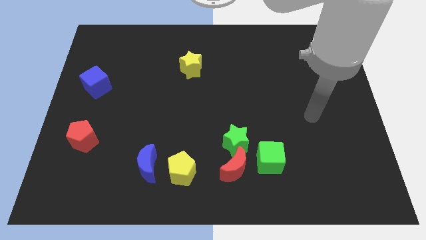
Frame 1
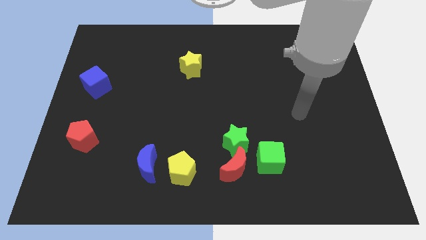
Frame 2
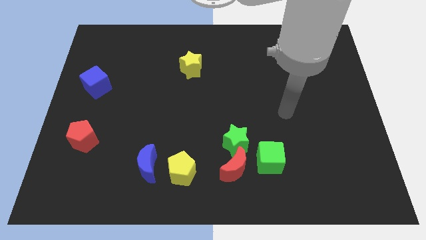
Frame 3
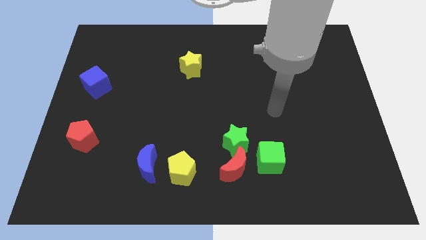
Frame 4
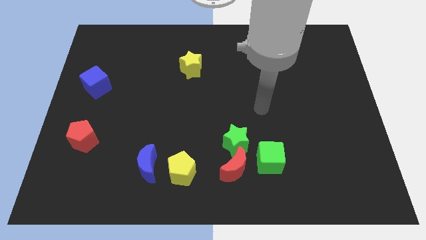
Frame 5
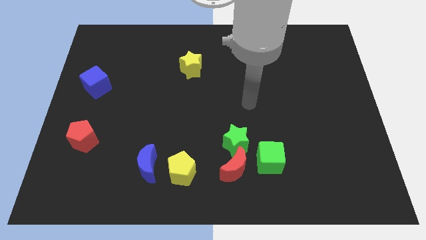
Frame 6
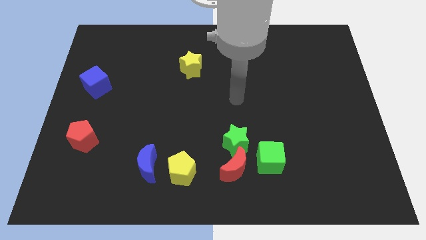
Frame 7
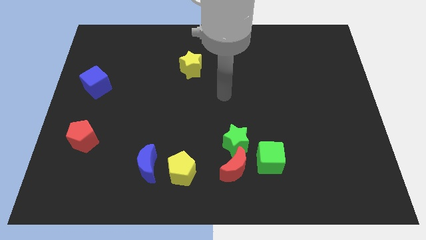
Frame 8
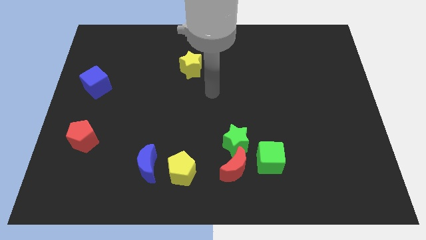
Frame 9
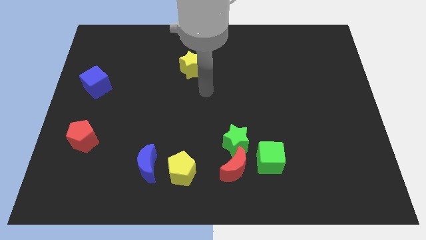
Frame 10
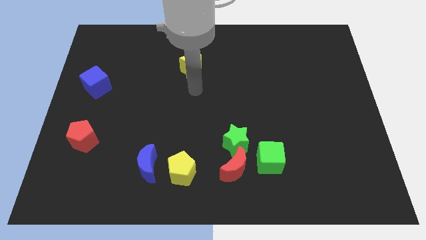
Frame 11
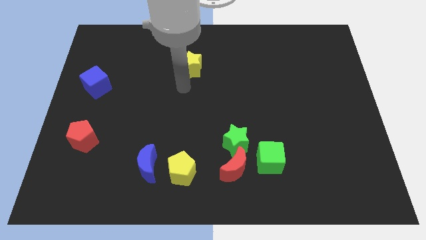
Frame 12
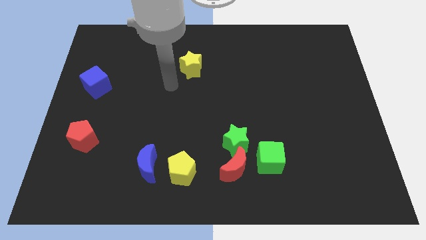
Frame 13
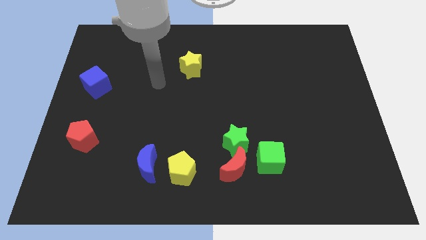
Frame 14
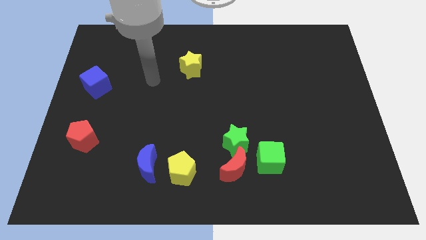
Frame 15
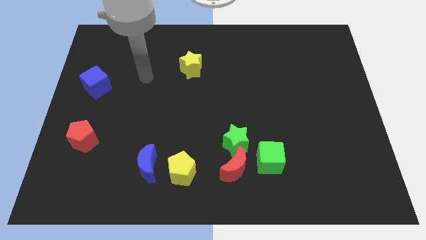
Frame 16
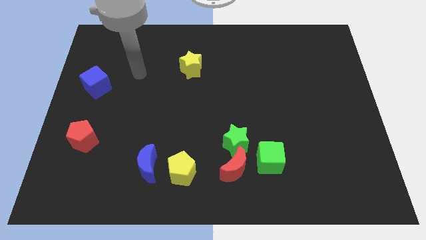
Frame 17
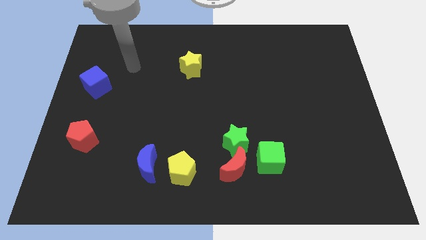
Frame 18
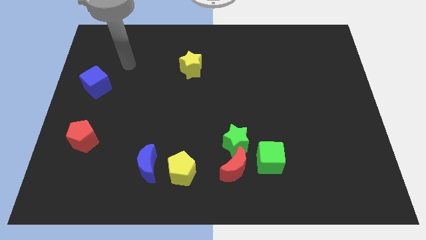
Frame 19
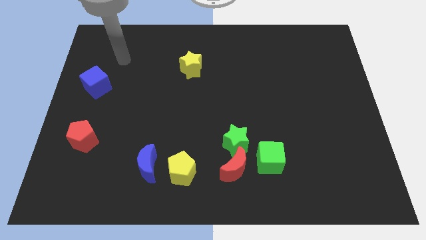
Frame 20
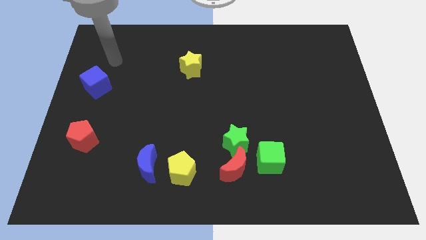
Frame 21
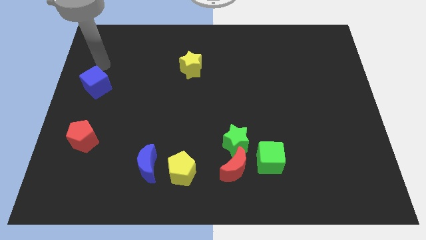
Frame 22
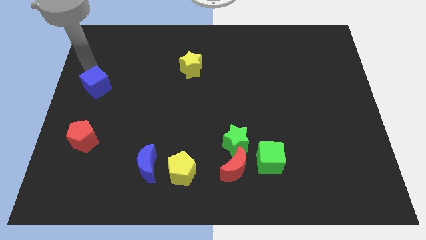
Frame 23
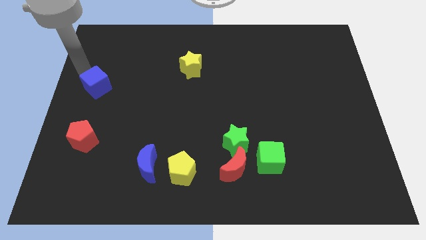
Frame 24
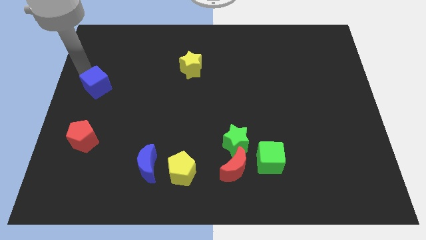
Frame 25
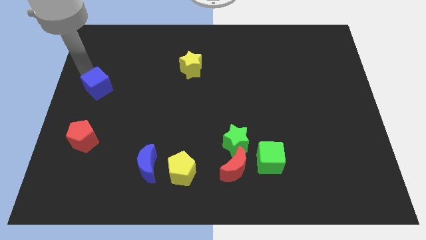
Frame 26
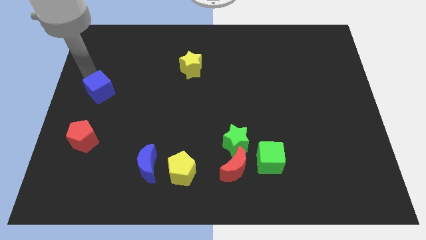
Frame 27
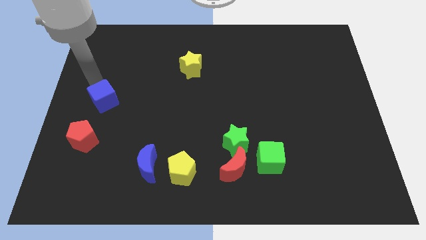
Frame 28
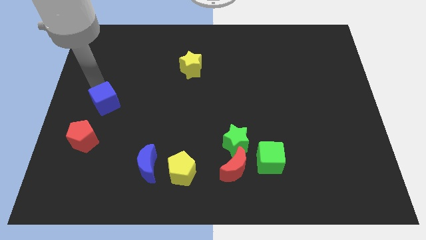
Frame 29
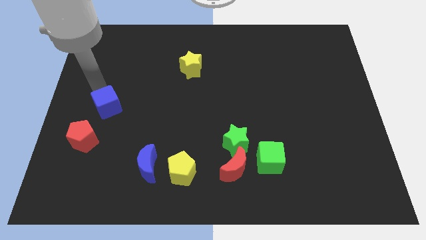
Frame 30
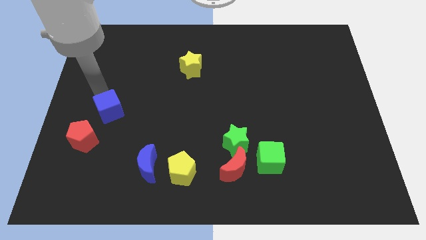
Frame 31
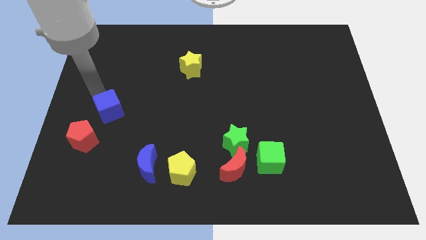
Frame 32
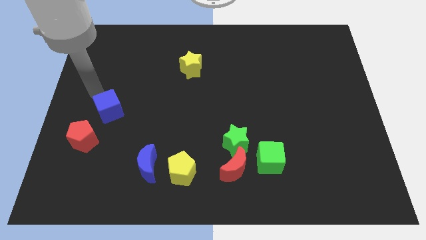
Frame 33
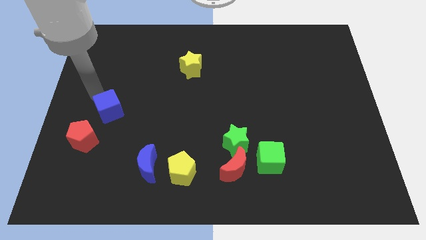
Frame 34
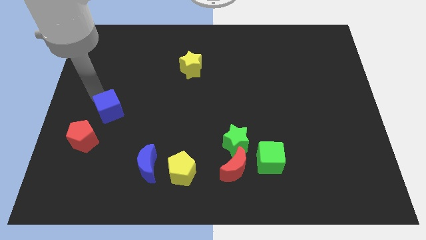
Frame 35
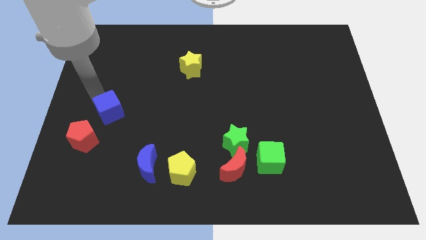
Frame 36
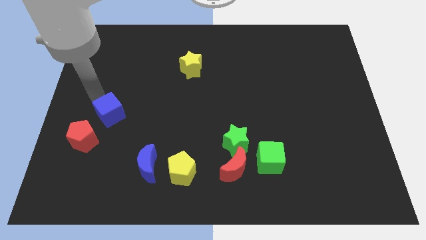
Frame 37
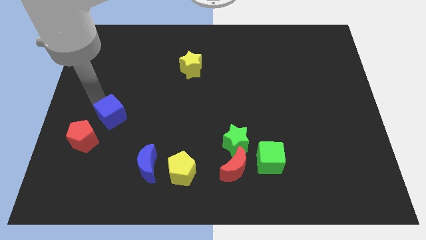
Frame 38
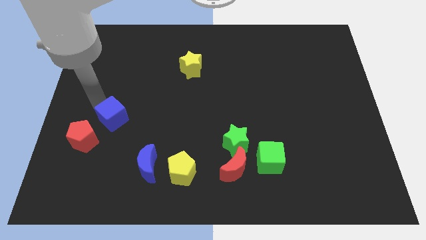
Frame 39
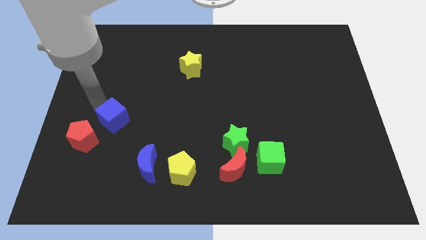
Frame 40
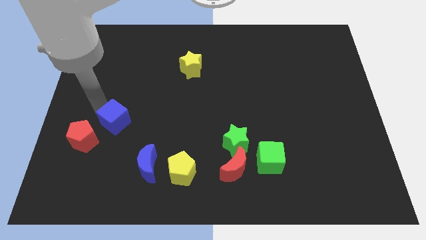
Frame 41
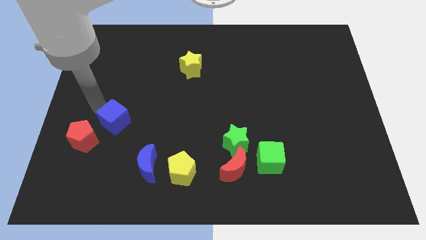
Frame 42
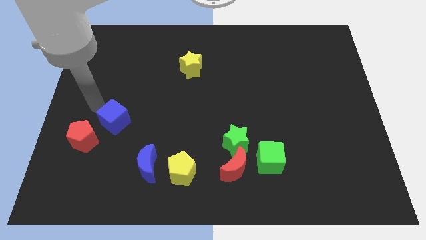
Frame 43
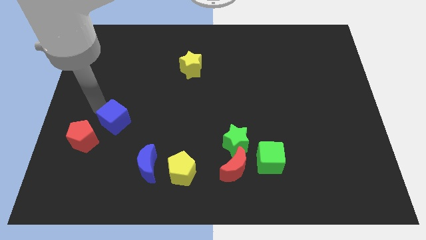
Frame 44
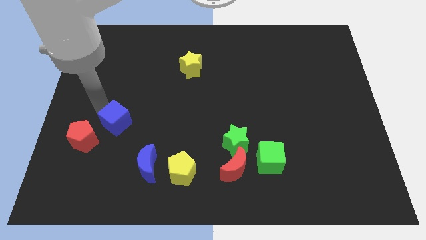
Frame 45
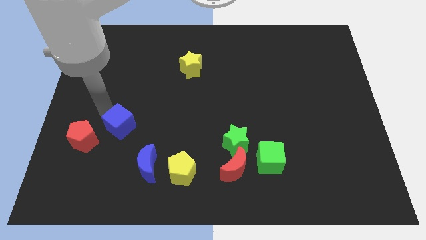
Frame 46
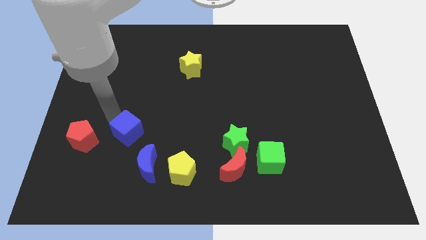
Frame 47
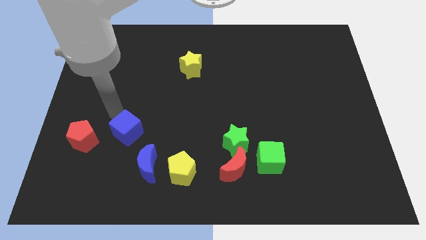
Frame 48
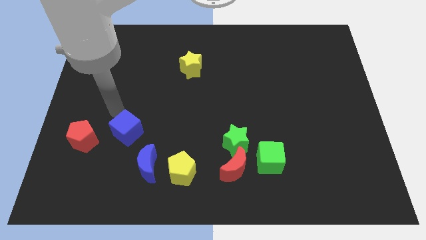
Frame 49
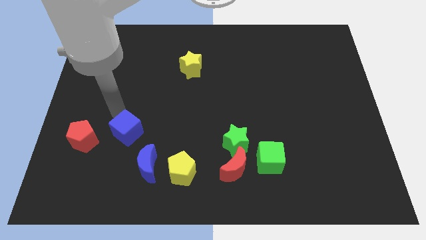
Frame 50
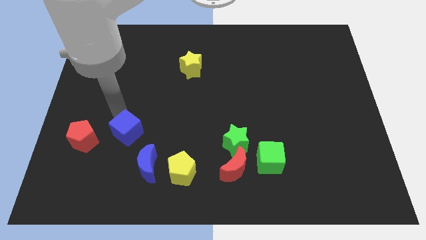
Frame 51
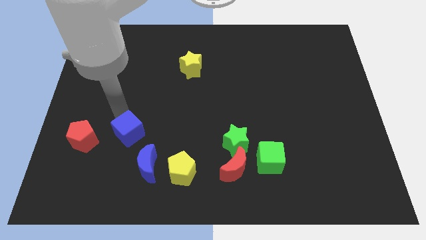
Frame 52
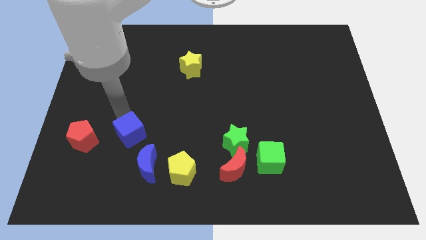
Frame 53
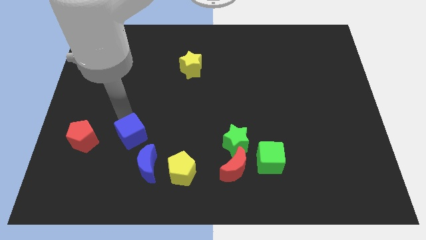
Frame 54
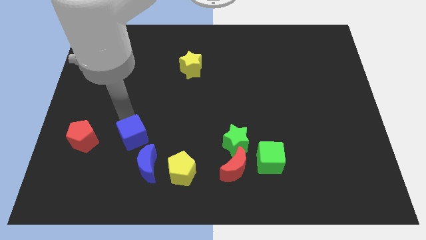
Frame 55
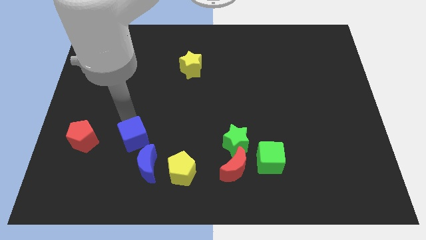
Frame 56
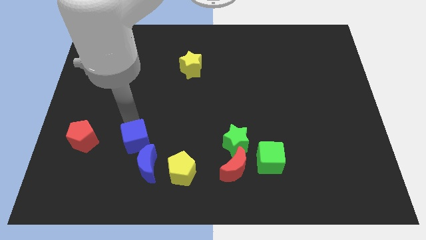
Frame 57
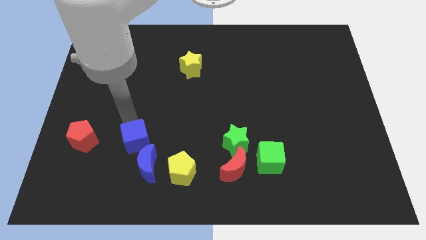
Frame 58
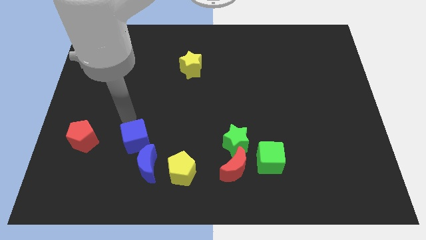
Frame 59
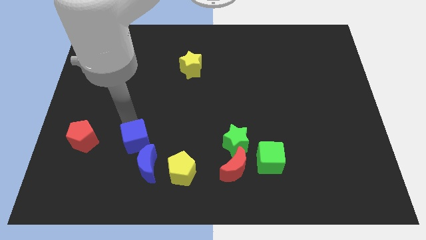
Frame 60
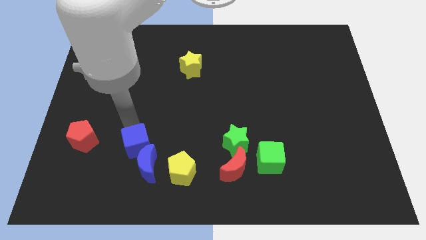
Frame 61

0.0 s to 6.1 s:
push the blue cube close to the blue moon

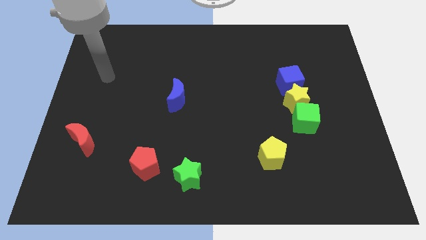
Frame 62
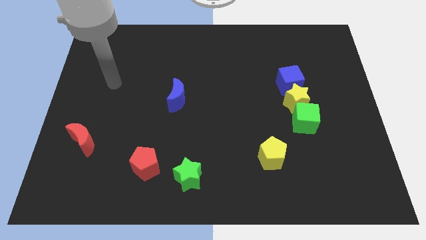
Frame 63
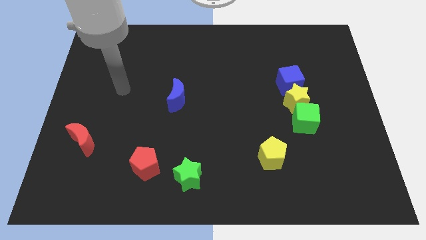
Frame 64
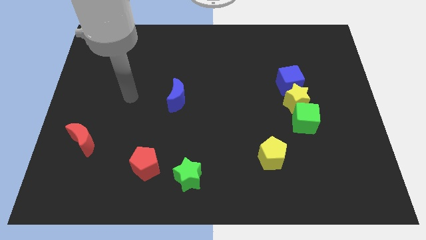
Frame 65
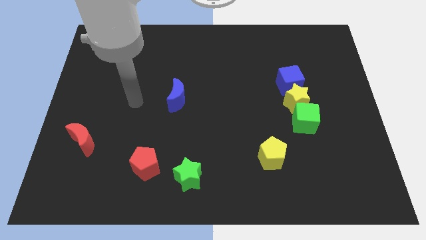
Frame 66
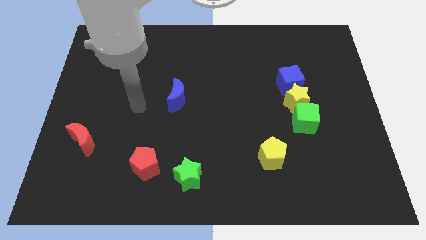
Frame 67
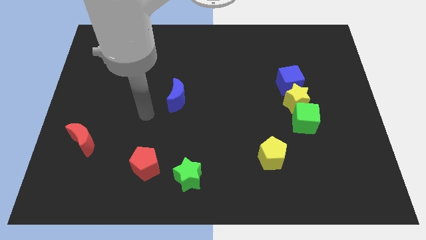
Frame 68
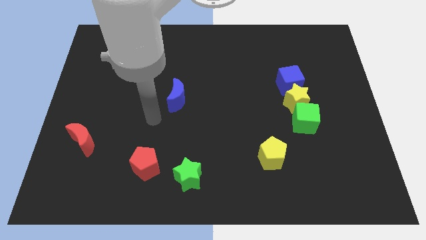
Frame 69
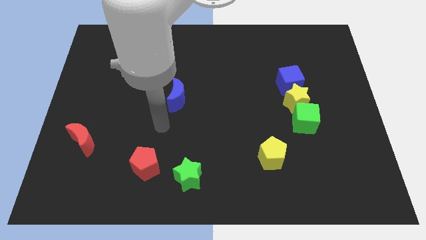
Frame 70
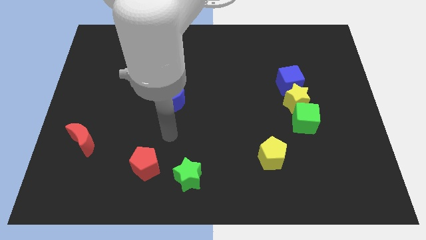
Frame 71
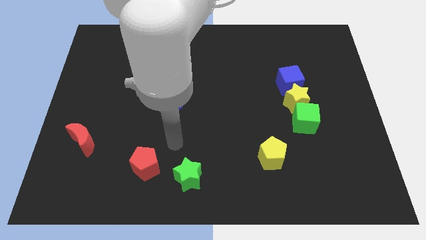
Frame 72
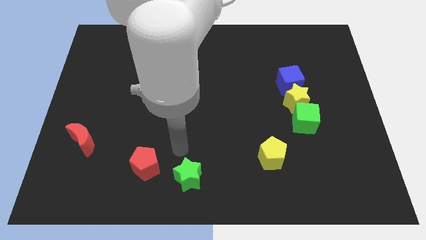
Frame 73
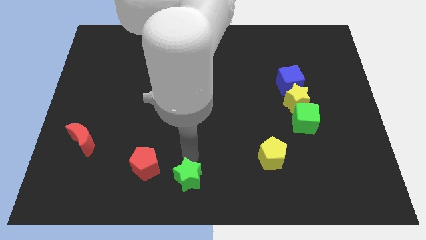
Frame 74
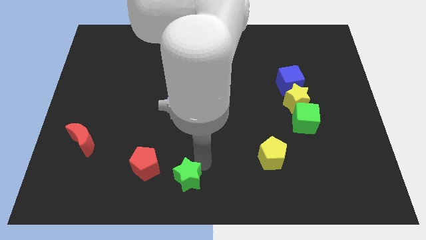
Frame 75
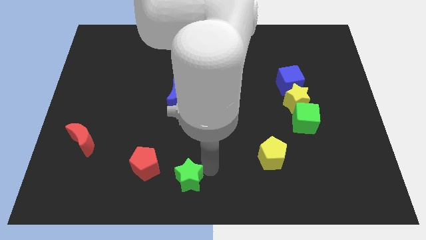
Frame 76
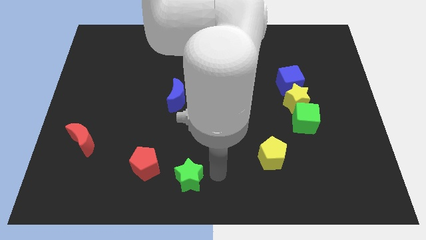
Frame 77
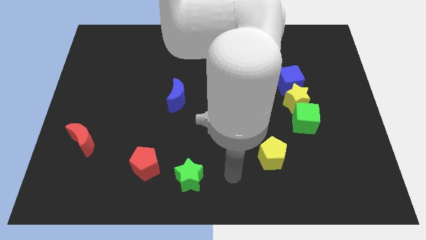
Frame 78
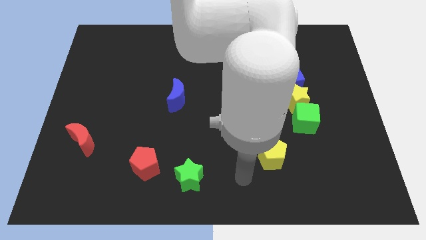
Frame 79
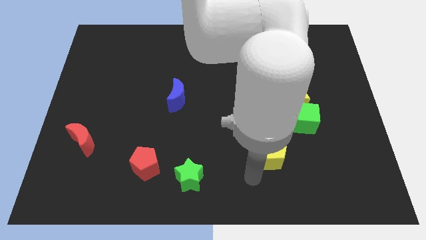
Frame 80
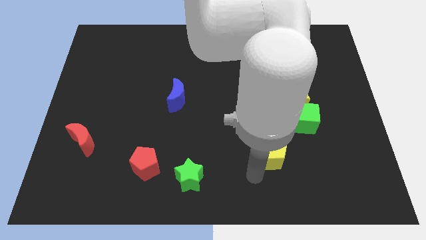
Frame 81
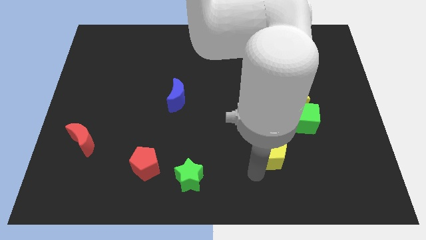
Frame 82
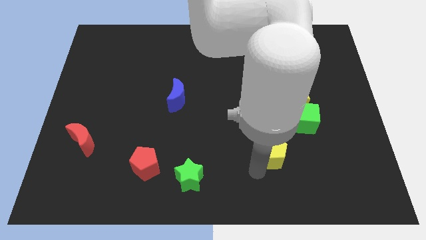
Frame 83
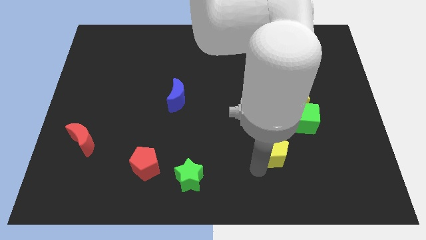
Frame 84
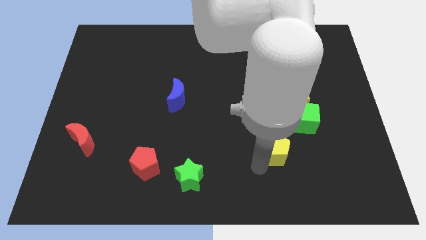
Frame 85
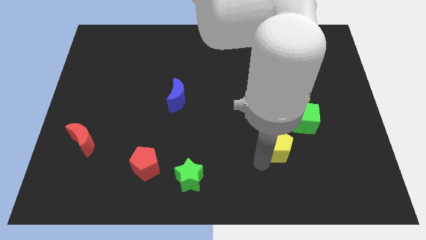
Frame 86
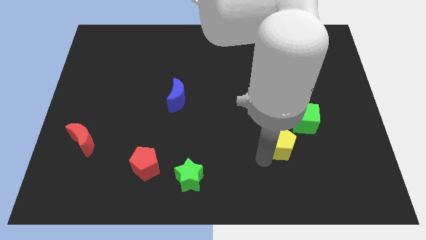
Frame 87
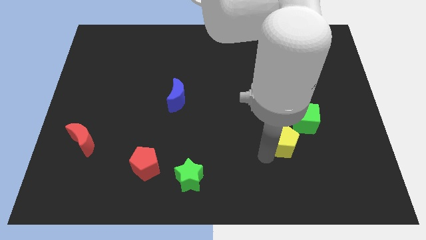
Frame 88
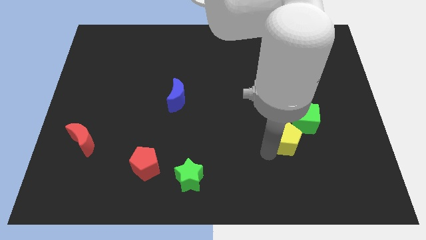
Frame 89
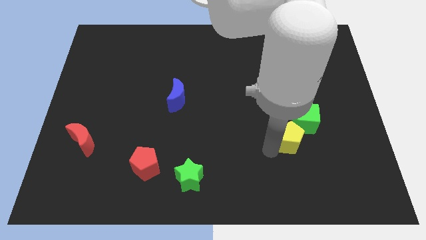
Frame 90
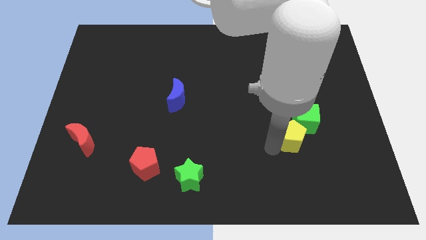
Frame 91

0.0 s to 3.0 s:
move the yellow pentagon next to the green cube
